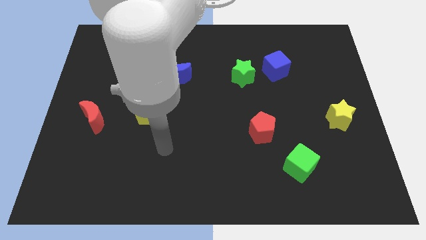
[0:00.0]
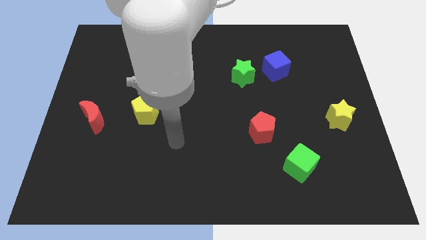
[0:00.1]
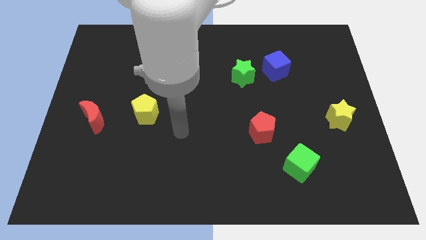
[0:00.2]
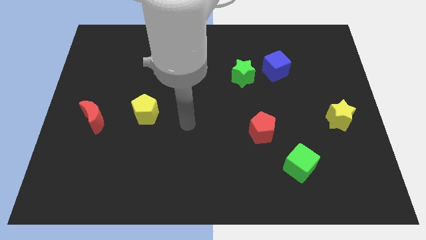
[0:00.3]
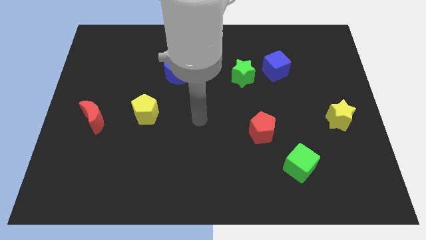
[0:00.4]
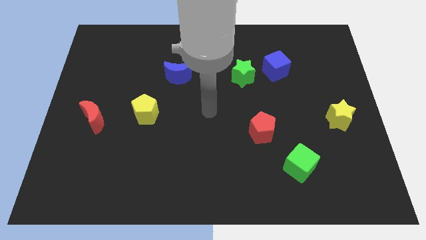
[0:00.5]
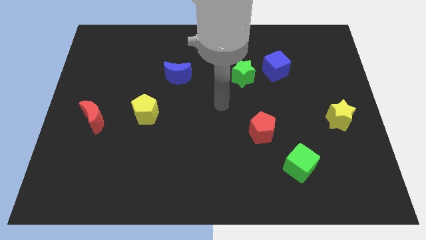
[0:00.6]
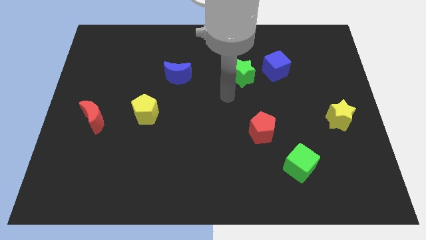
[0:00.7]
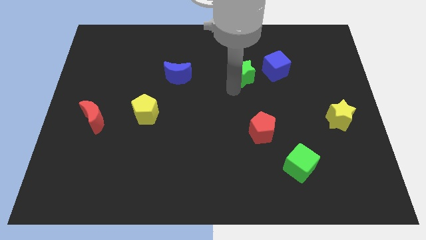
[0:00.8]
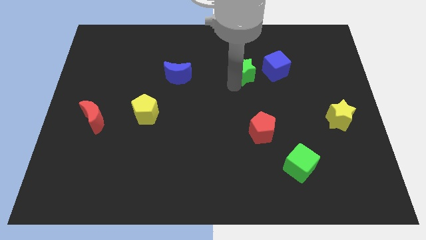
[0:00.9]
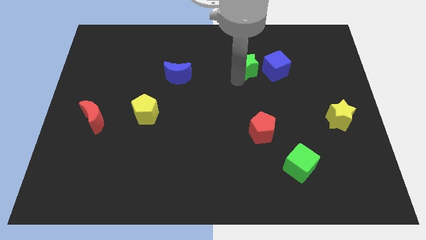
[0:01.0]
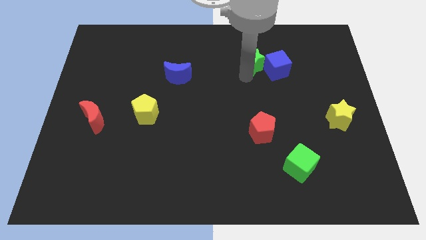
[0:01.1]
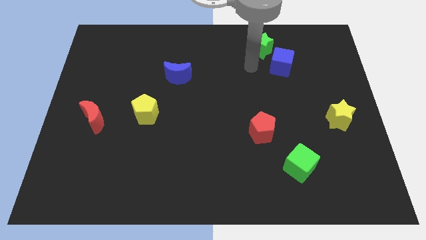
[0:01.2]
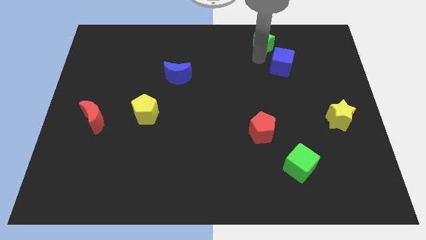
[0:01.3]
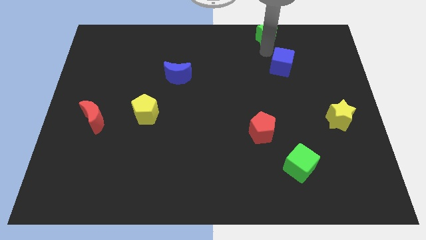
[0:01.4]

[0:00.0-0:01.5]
separate the blue cube from the green star

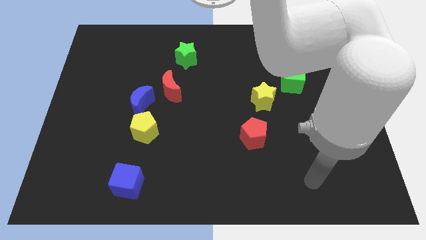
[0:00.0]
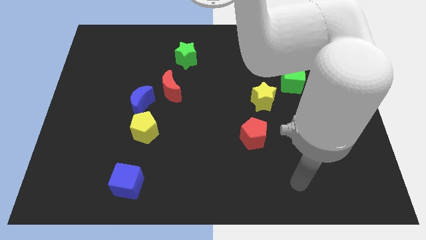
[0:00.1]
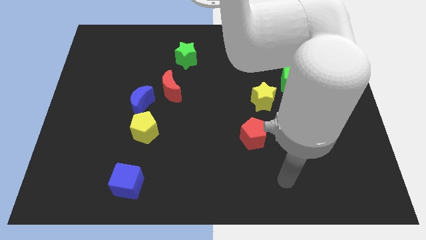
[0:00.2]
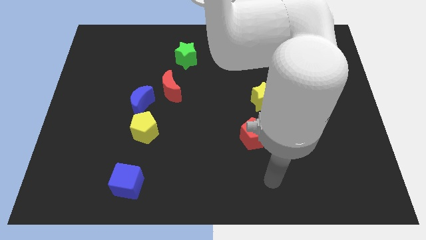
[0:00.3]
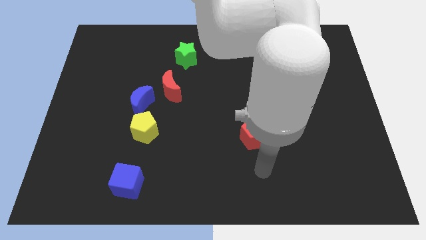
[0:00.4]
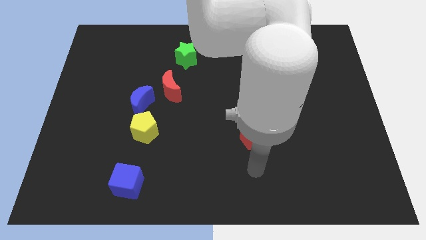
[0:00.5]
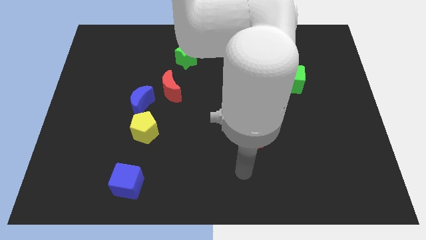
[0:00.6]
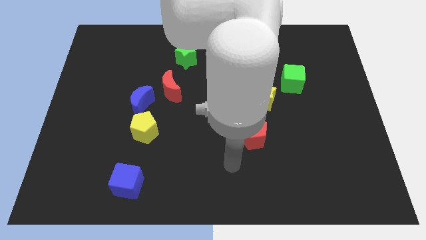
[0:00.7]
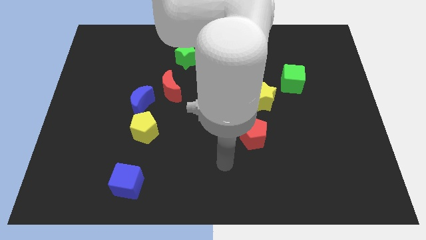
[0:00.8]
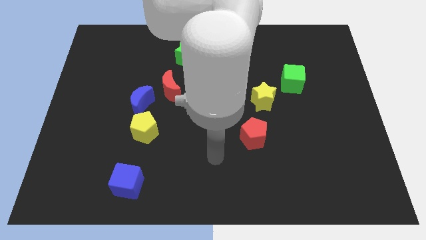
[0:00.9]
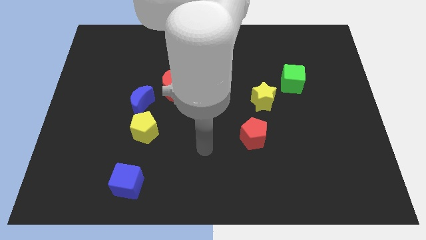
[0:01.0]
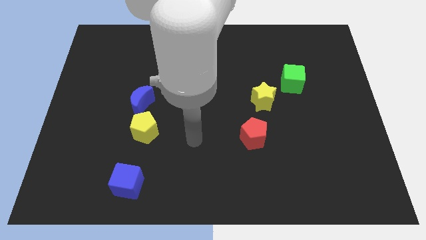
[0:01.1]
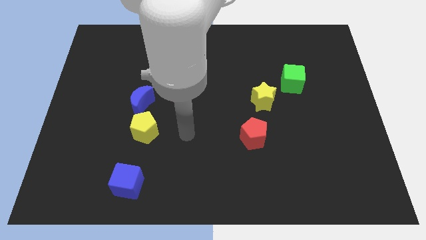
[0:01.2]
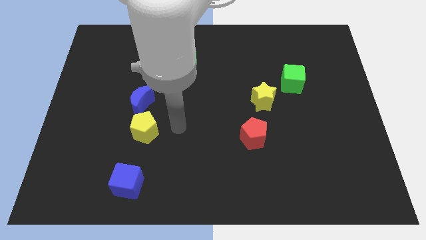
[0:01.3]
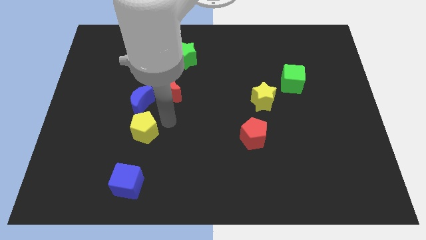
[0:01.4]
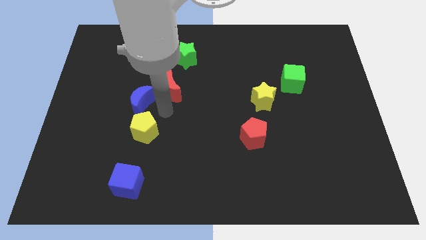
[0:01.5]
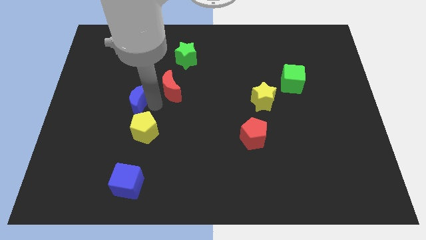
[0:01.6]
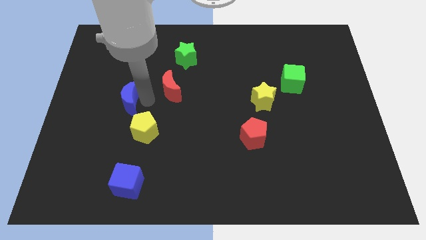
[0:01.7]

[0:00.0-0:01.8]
pull the red moon apart from the blue moon

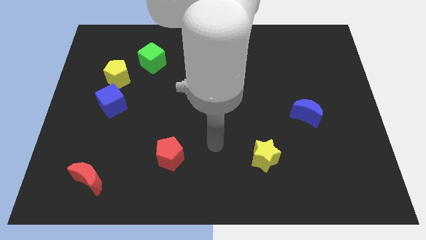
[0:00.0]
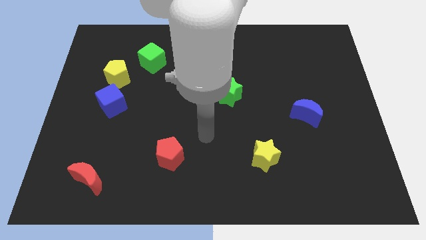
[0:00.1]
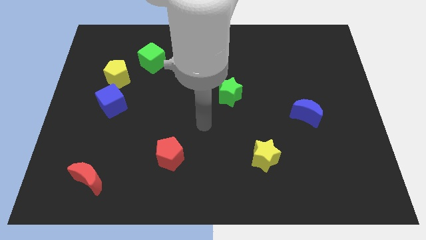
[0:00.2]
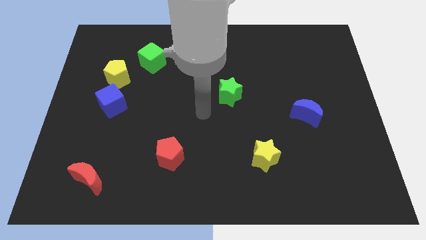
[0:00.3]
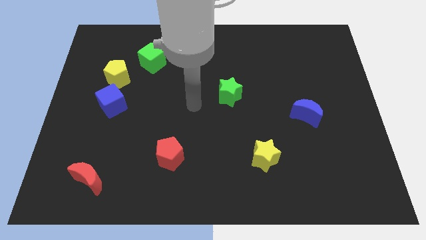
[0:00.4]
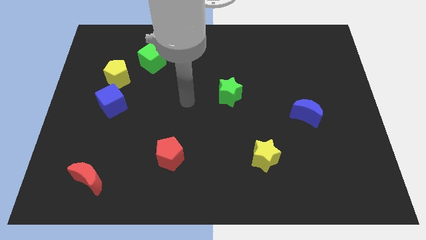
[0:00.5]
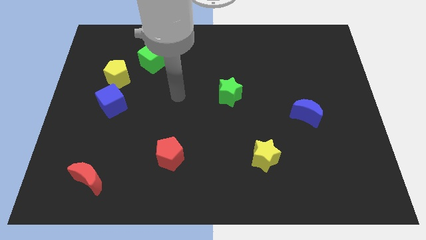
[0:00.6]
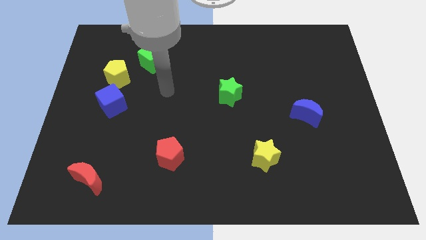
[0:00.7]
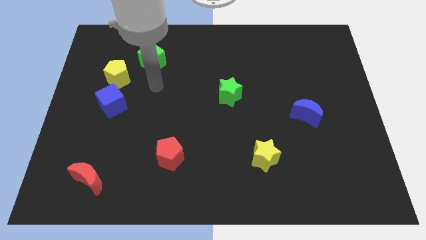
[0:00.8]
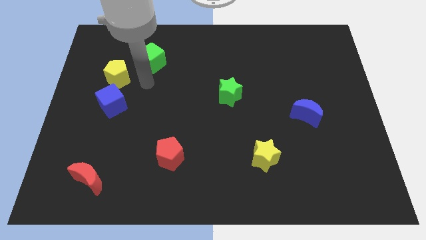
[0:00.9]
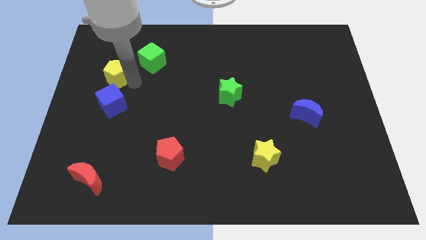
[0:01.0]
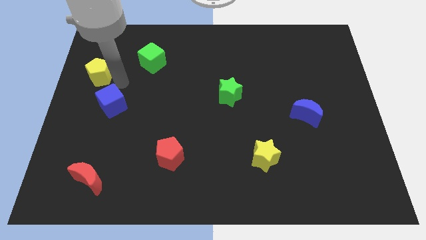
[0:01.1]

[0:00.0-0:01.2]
pull the blue cube apart from the yellow pentagon

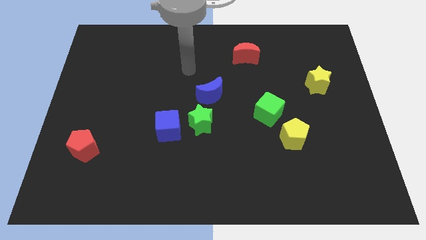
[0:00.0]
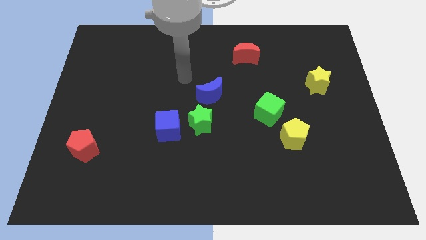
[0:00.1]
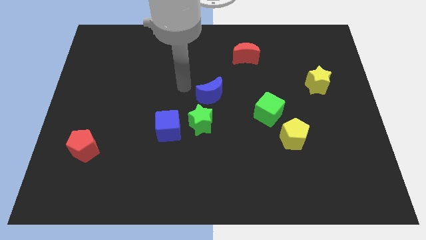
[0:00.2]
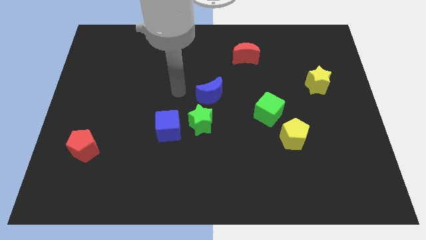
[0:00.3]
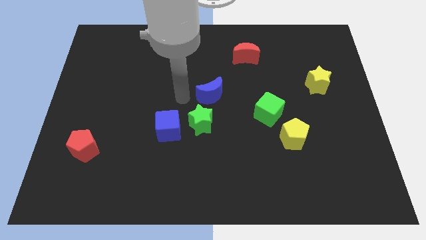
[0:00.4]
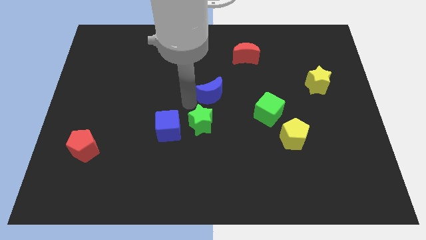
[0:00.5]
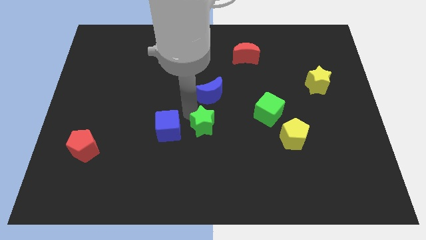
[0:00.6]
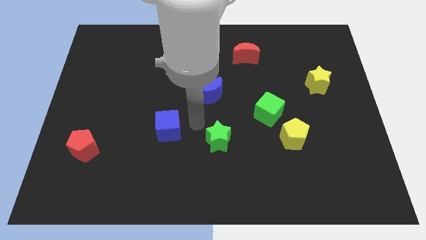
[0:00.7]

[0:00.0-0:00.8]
pull the blue cube apart from the green star

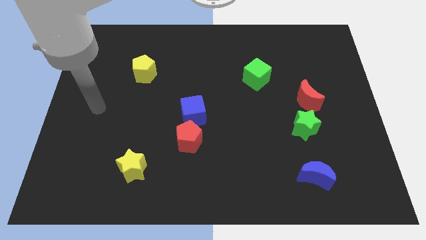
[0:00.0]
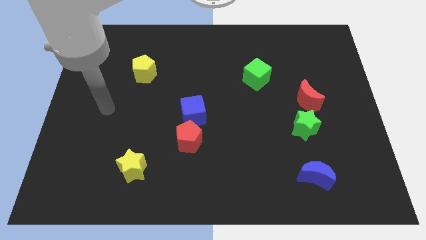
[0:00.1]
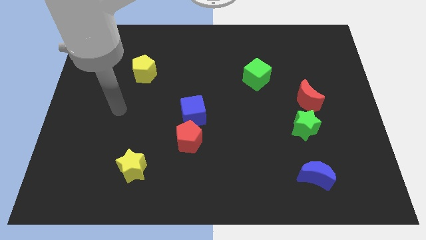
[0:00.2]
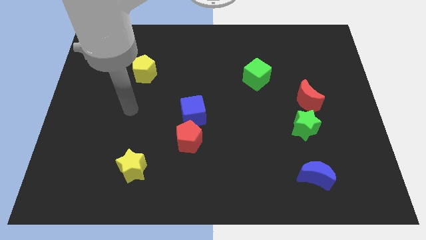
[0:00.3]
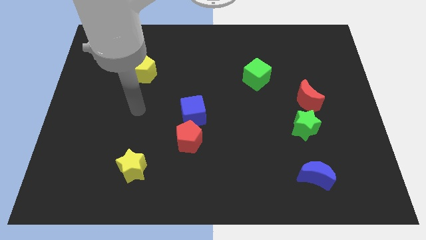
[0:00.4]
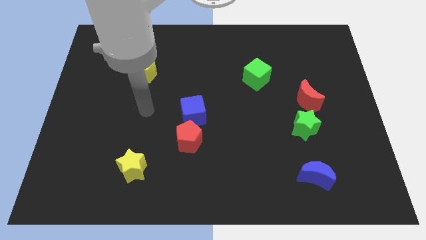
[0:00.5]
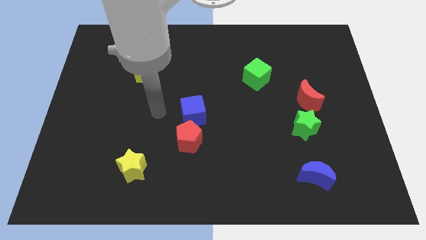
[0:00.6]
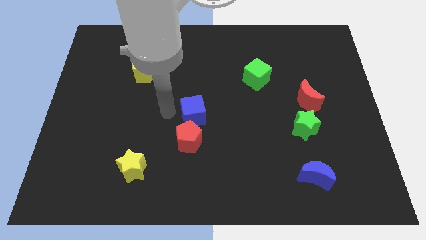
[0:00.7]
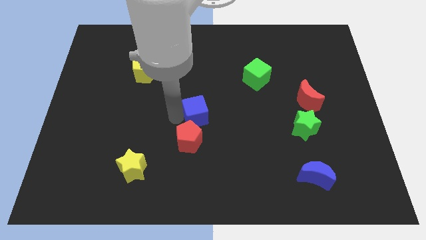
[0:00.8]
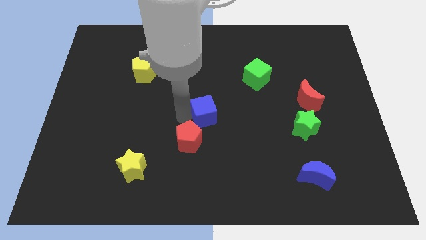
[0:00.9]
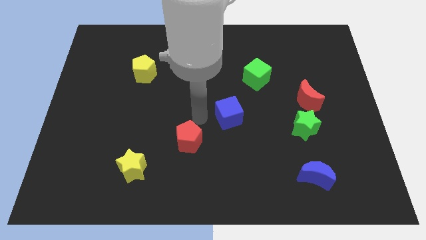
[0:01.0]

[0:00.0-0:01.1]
separate the red pentagon from the blue cube

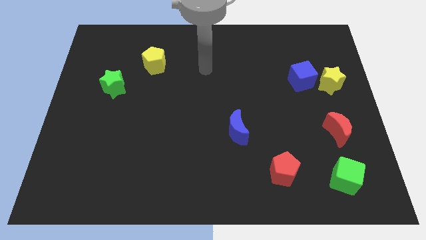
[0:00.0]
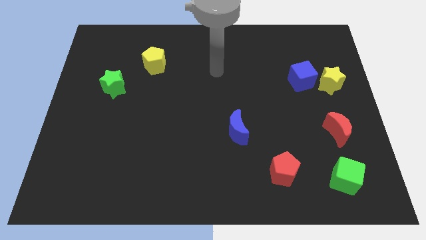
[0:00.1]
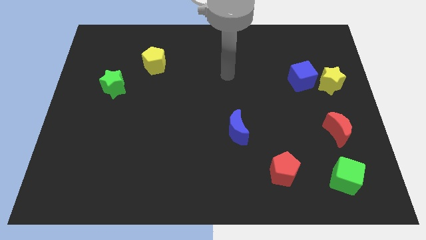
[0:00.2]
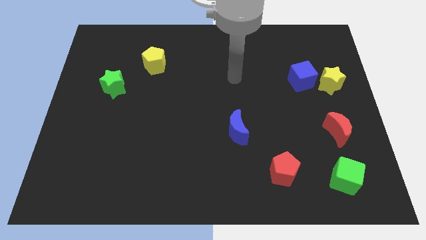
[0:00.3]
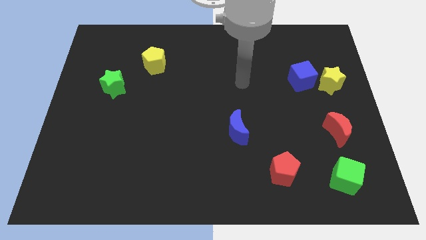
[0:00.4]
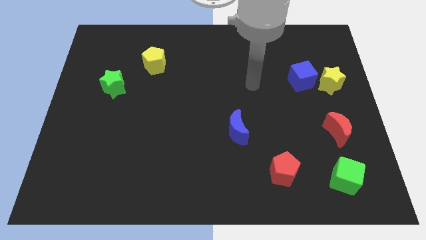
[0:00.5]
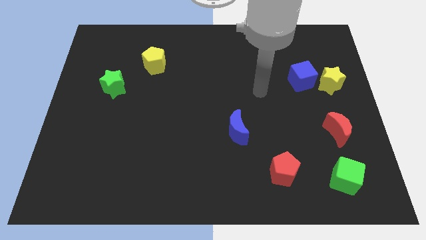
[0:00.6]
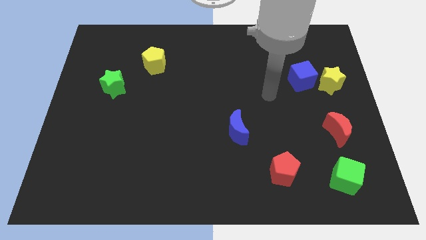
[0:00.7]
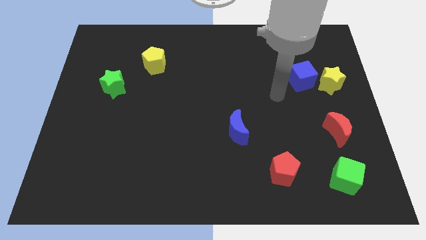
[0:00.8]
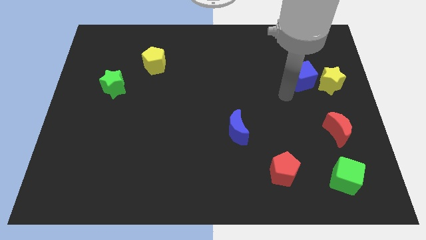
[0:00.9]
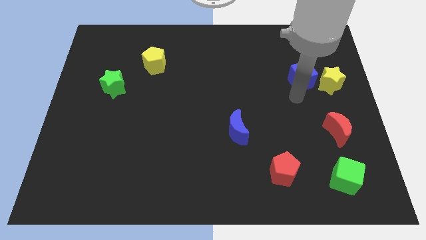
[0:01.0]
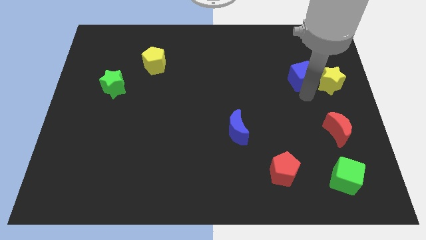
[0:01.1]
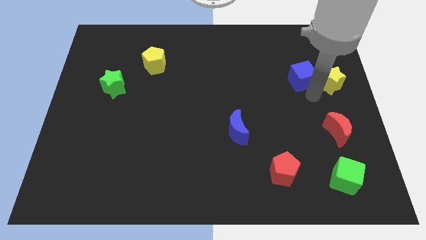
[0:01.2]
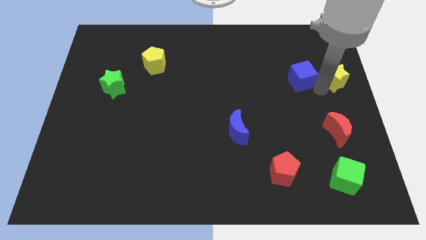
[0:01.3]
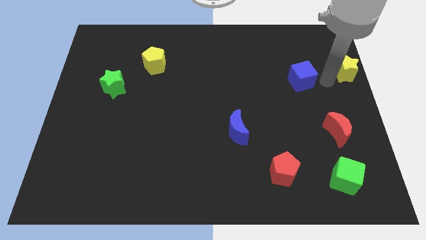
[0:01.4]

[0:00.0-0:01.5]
move the blue cube away from the yellow star

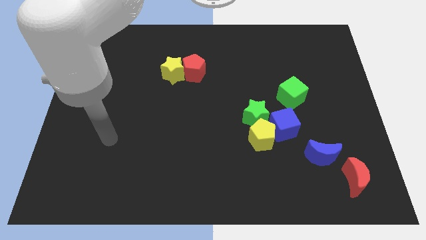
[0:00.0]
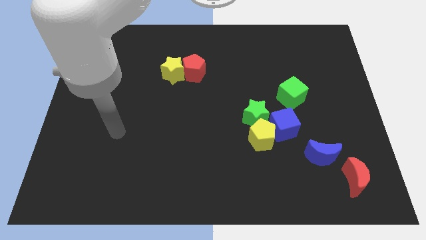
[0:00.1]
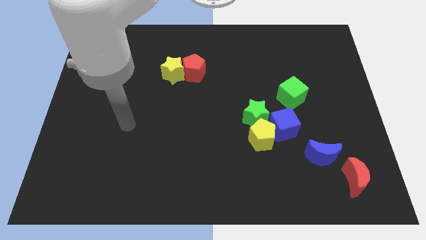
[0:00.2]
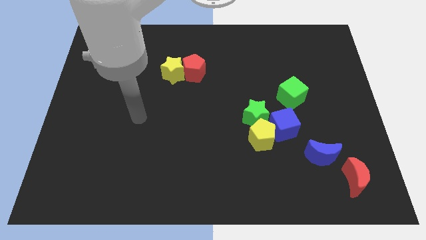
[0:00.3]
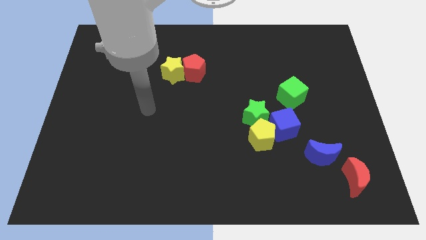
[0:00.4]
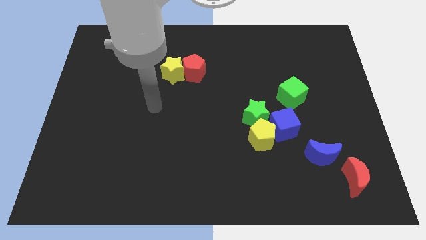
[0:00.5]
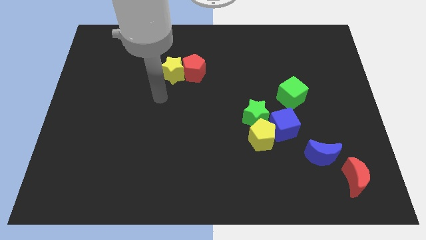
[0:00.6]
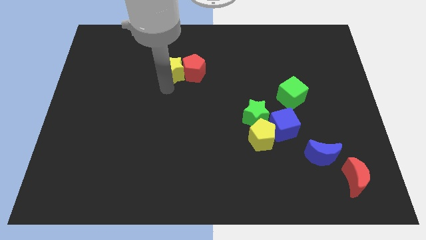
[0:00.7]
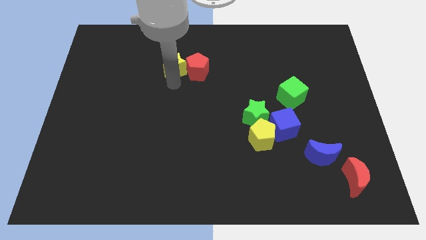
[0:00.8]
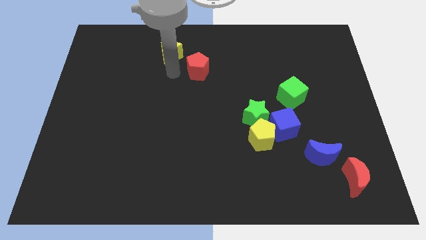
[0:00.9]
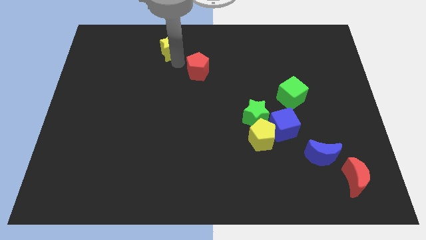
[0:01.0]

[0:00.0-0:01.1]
separate the red pentagon from the yellow star
